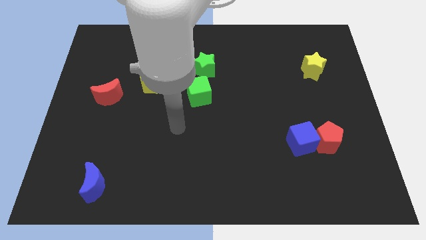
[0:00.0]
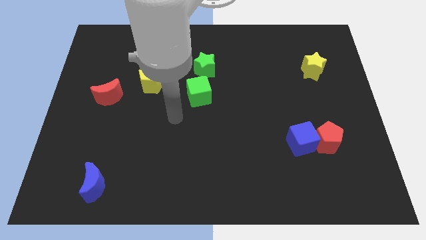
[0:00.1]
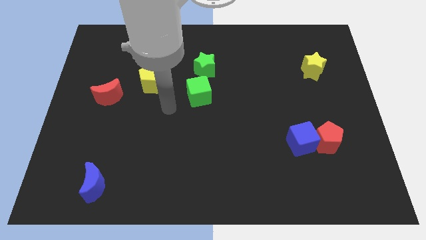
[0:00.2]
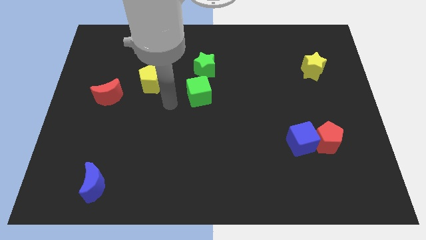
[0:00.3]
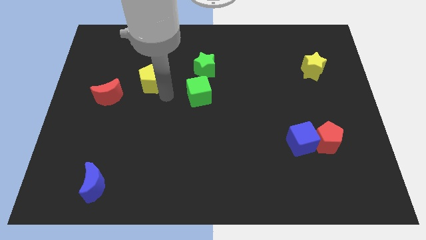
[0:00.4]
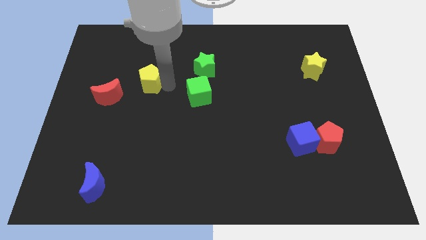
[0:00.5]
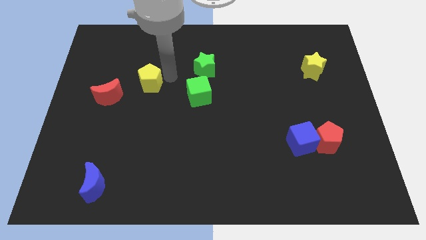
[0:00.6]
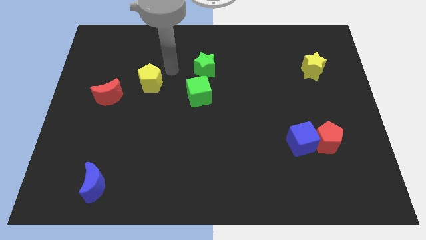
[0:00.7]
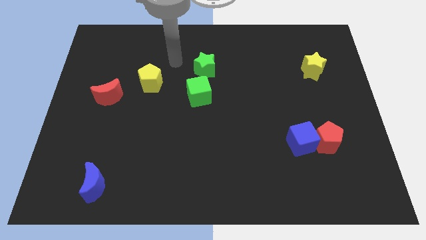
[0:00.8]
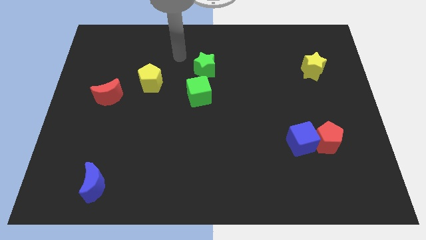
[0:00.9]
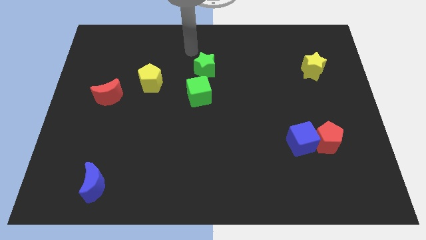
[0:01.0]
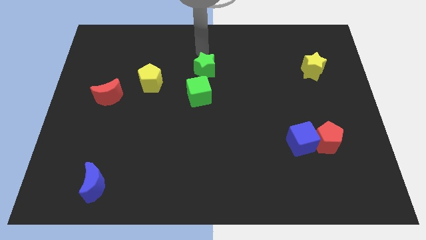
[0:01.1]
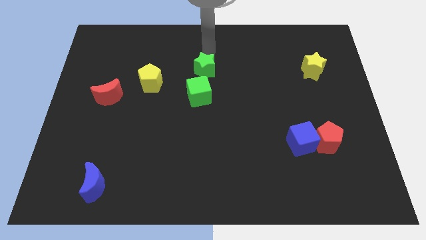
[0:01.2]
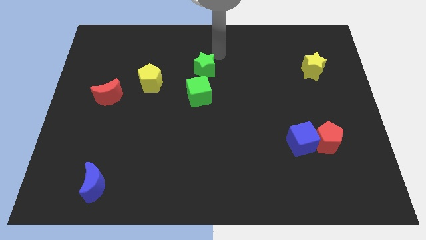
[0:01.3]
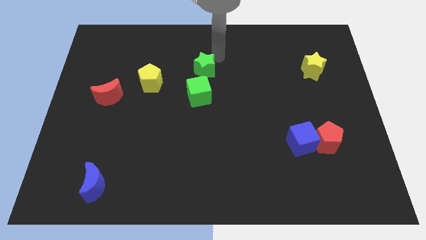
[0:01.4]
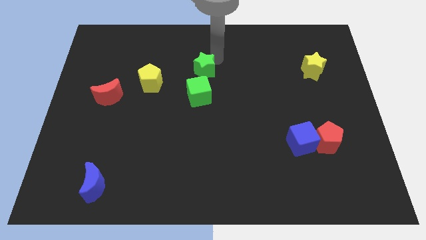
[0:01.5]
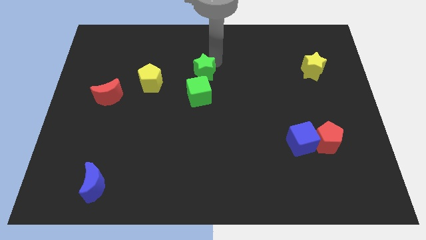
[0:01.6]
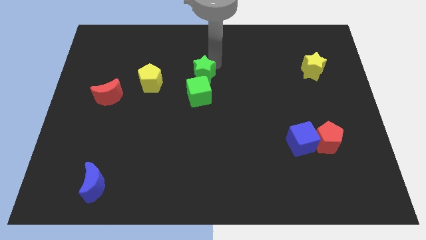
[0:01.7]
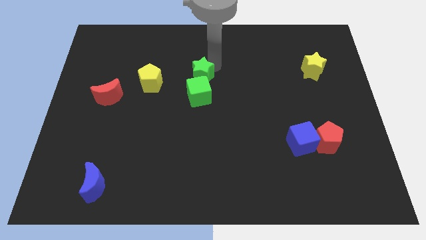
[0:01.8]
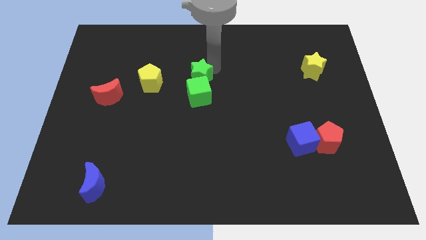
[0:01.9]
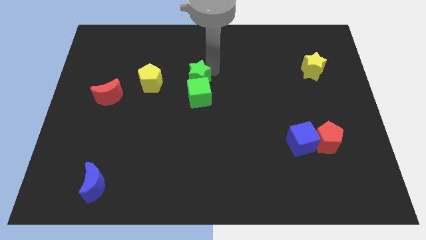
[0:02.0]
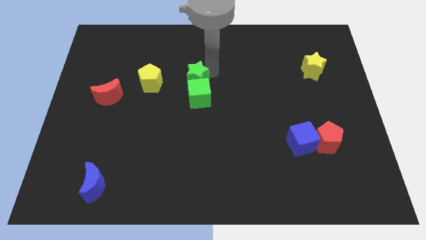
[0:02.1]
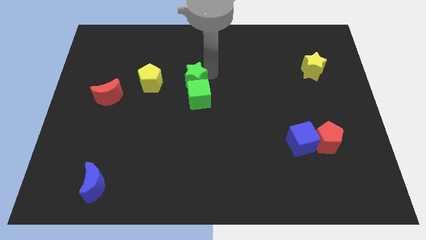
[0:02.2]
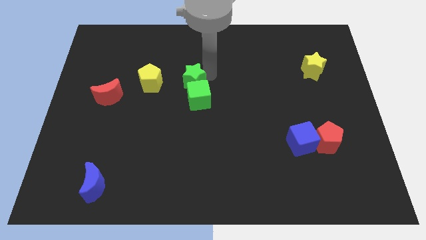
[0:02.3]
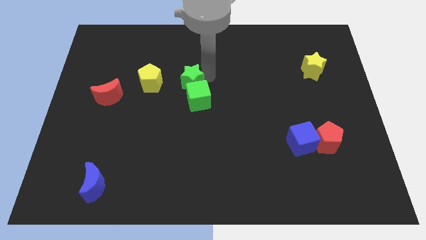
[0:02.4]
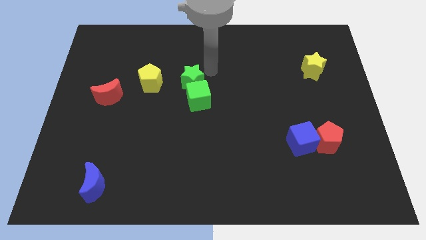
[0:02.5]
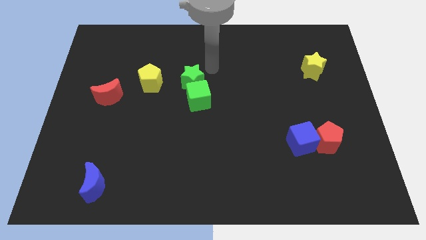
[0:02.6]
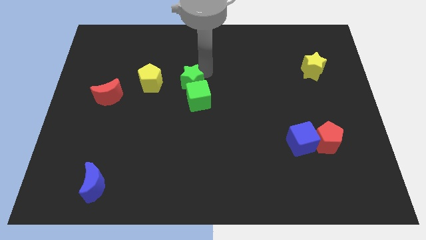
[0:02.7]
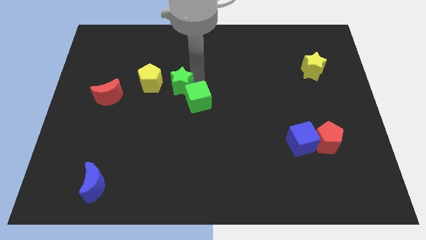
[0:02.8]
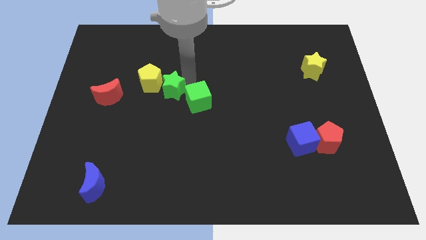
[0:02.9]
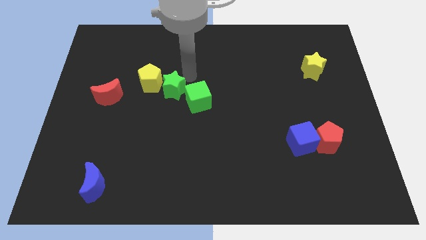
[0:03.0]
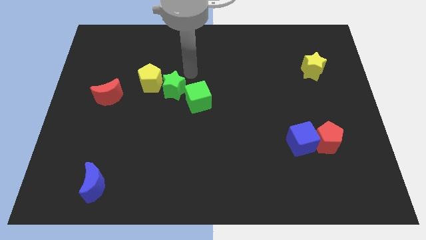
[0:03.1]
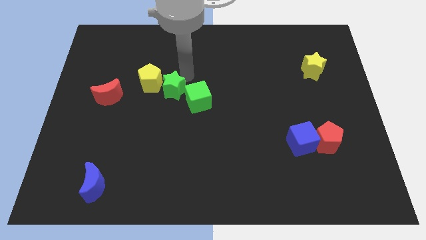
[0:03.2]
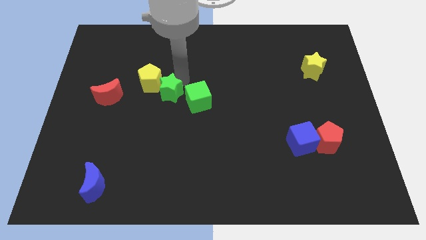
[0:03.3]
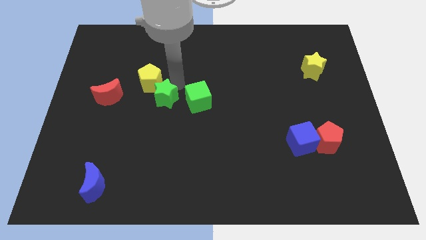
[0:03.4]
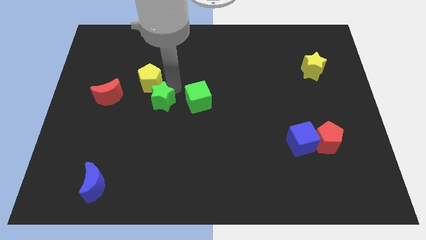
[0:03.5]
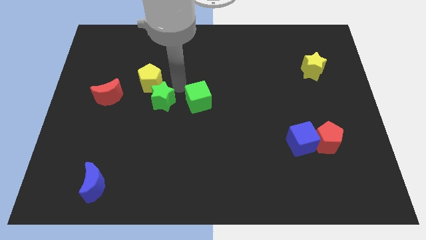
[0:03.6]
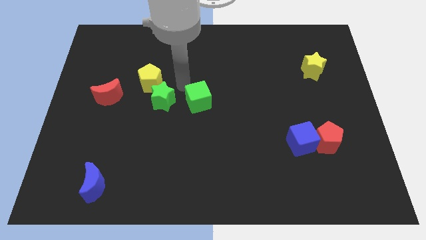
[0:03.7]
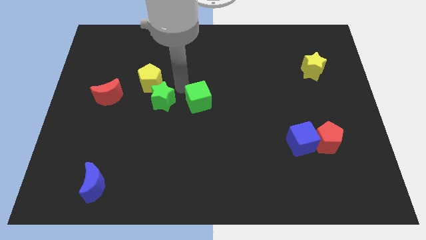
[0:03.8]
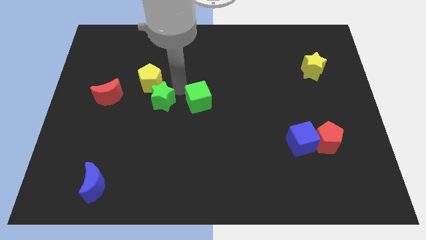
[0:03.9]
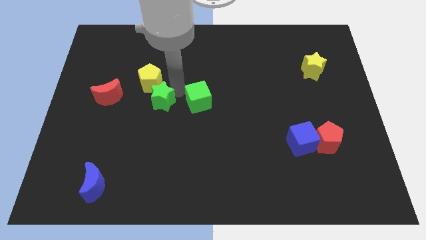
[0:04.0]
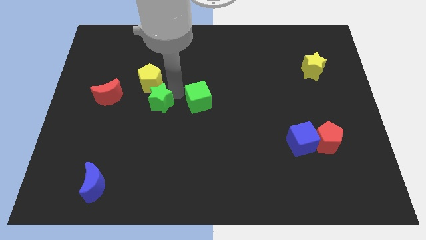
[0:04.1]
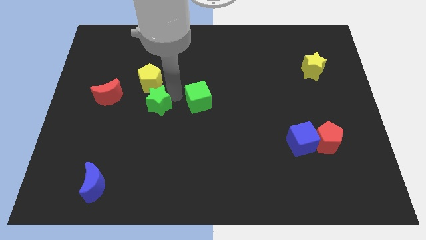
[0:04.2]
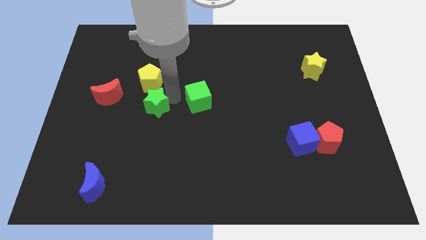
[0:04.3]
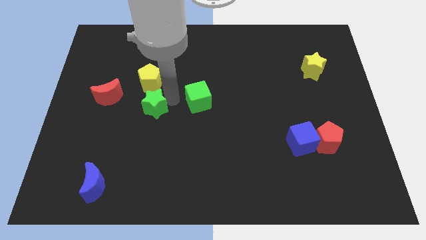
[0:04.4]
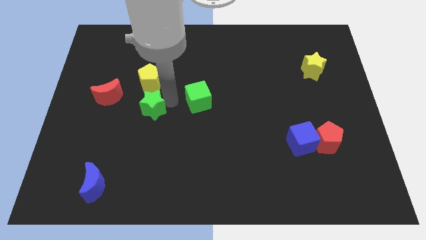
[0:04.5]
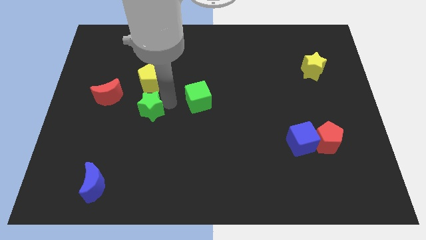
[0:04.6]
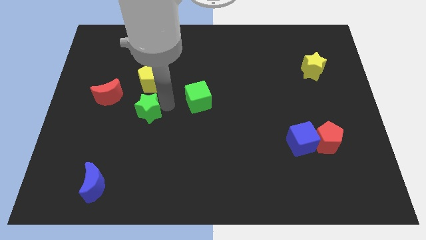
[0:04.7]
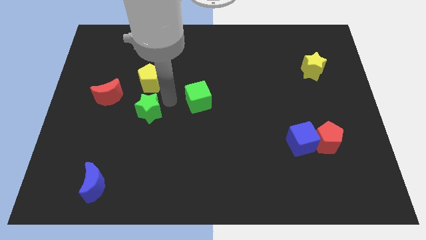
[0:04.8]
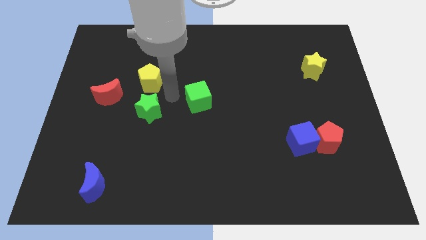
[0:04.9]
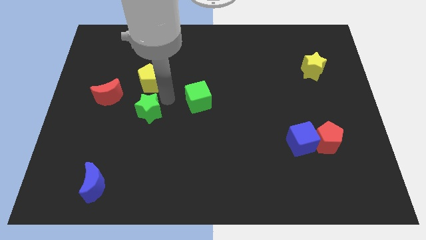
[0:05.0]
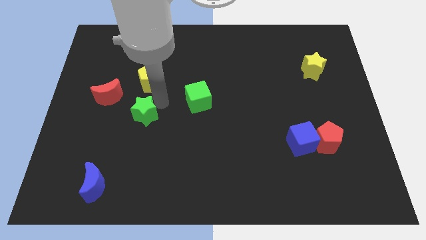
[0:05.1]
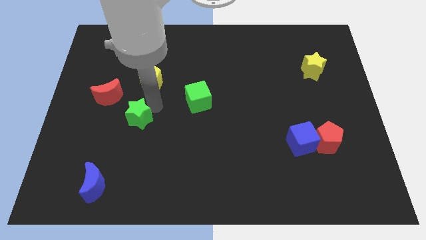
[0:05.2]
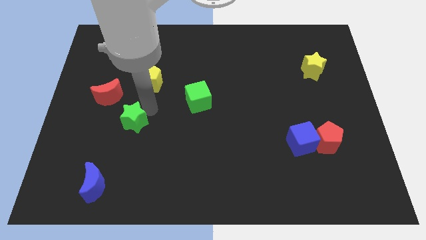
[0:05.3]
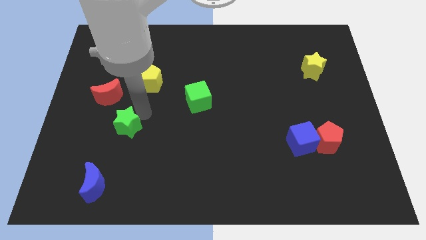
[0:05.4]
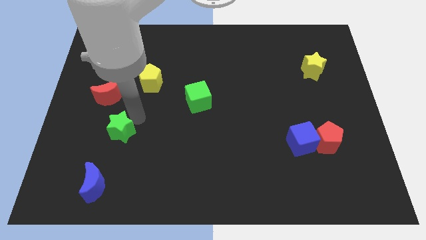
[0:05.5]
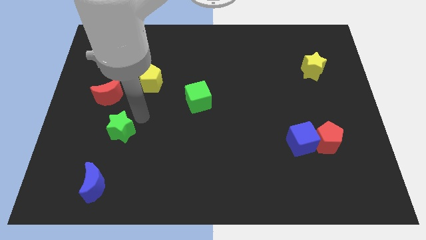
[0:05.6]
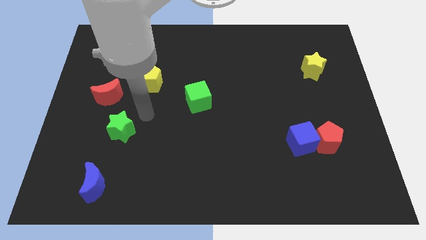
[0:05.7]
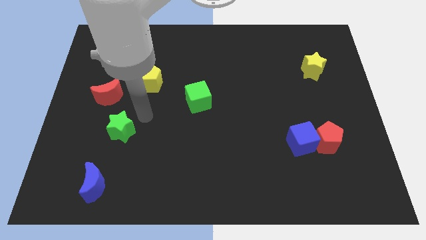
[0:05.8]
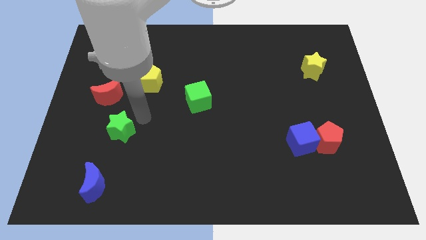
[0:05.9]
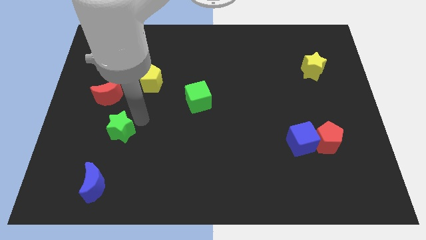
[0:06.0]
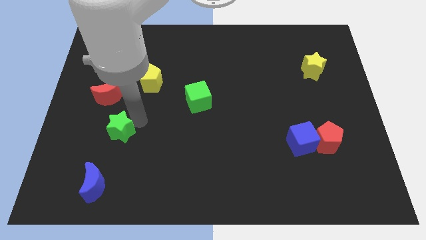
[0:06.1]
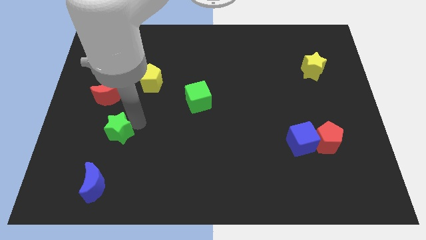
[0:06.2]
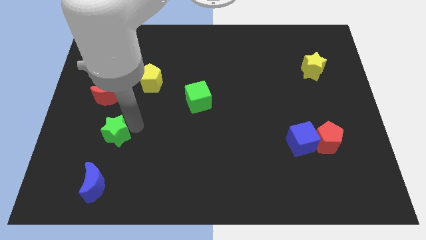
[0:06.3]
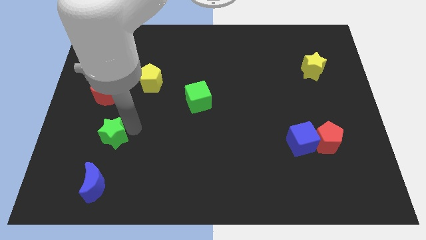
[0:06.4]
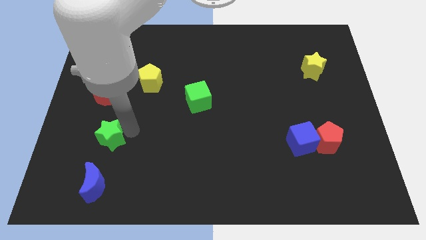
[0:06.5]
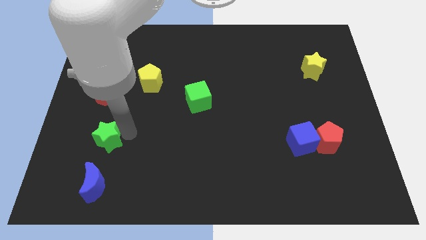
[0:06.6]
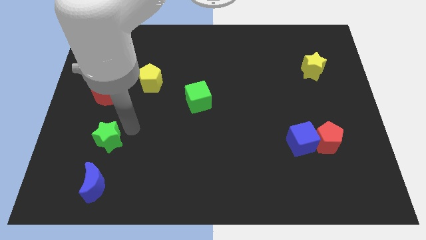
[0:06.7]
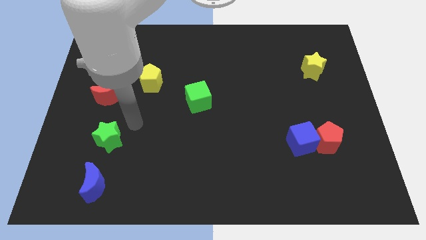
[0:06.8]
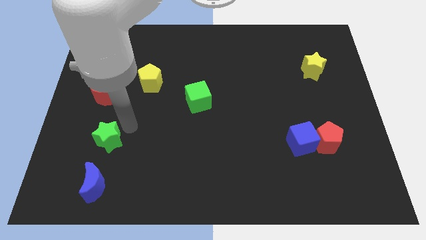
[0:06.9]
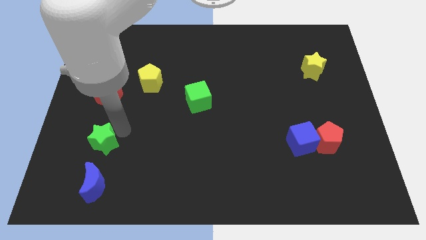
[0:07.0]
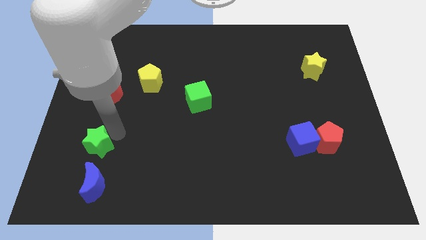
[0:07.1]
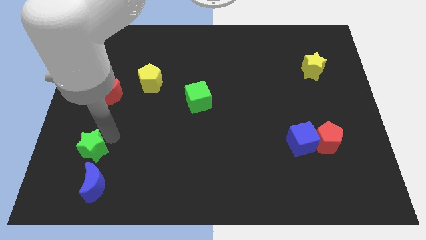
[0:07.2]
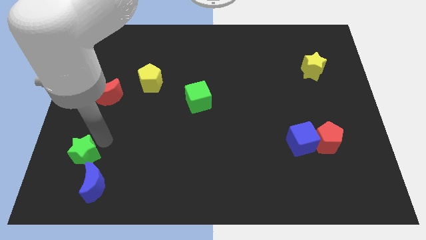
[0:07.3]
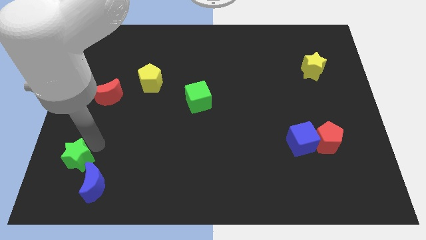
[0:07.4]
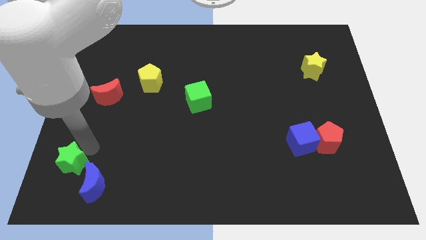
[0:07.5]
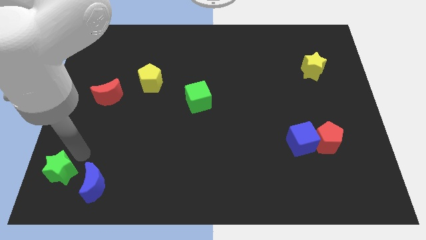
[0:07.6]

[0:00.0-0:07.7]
move the green star to the bottom left
